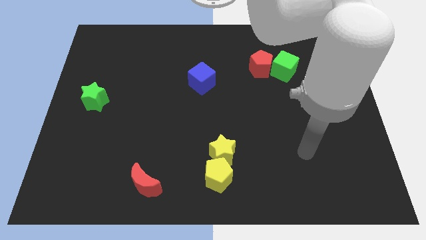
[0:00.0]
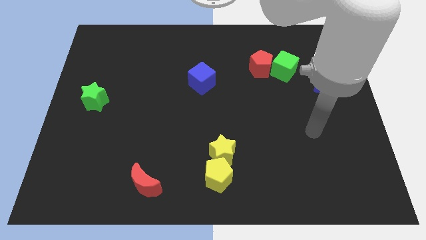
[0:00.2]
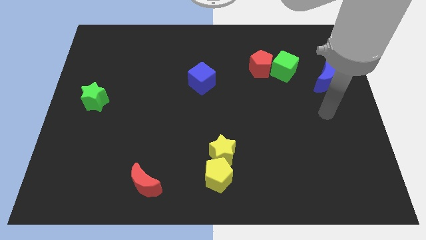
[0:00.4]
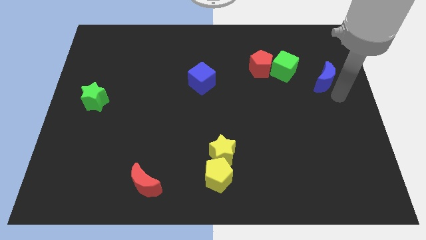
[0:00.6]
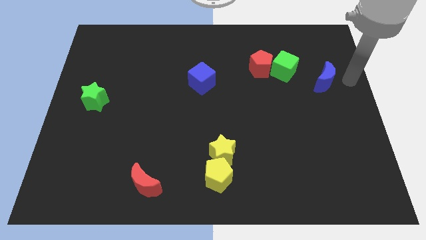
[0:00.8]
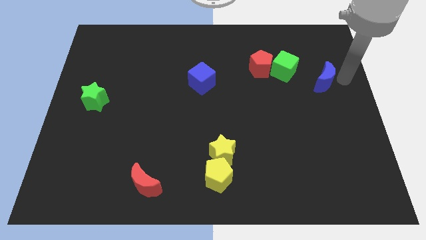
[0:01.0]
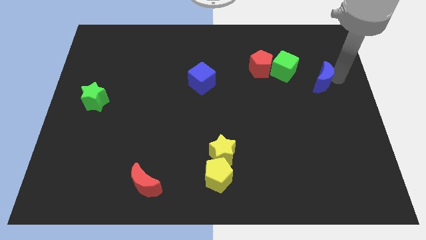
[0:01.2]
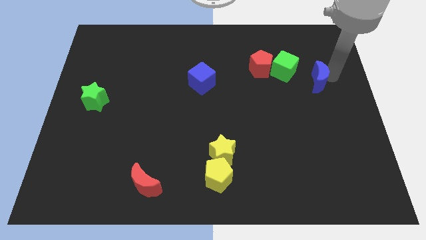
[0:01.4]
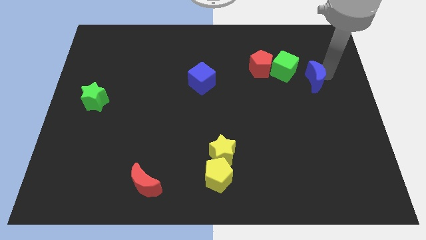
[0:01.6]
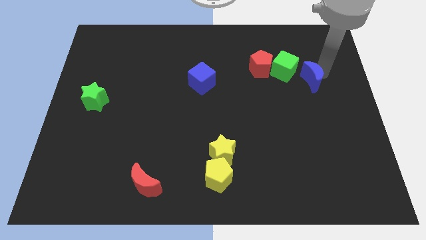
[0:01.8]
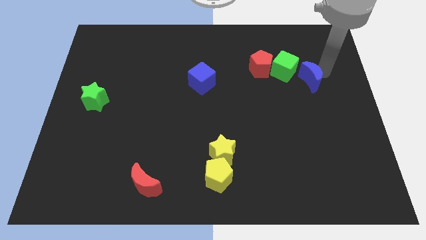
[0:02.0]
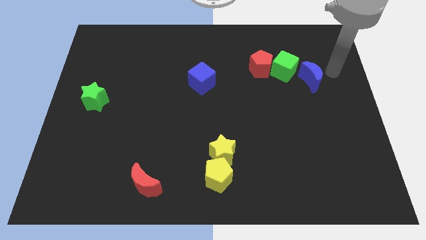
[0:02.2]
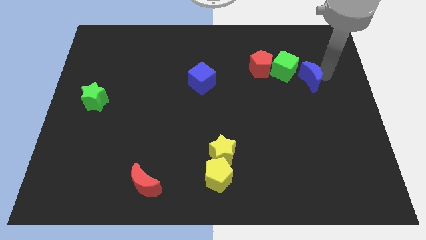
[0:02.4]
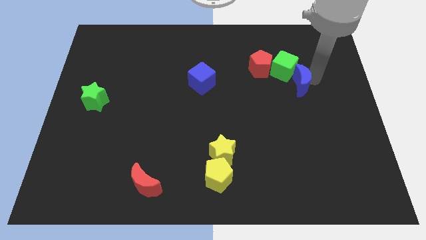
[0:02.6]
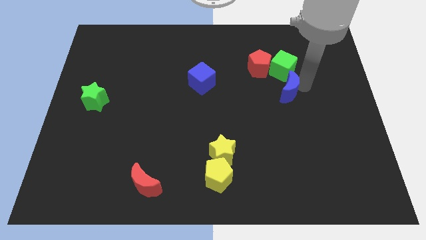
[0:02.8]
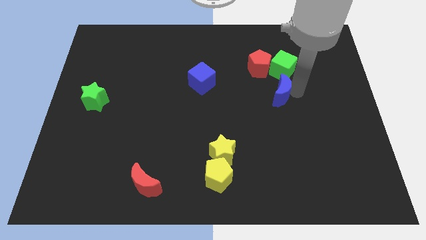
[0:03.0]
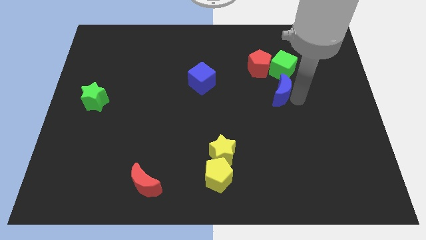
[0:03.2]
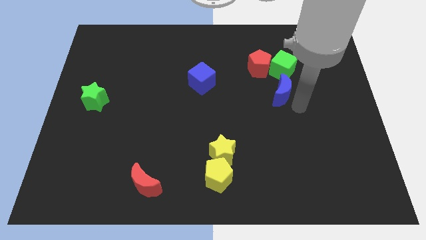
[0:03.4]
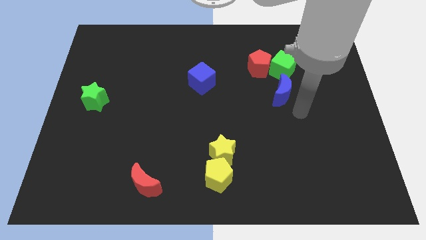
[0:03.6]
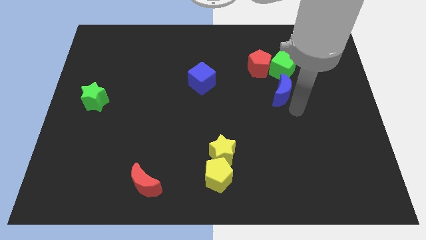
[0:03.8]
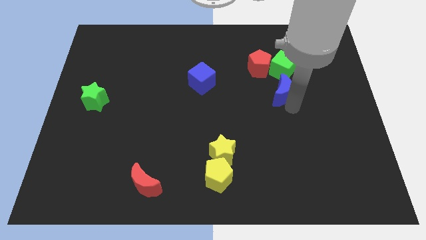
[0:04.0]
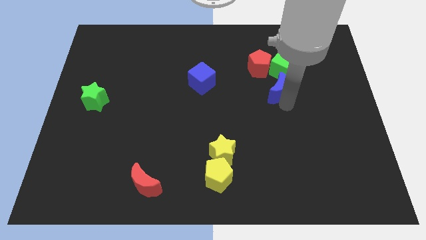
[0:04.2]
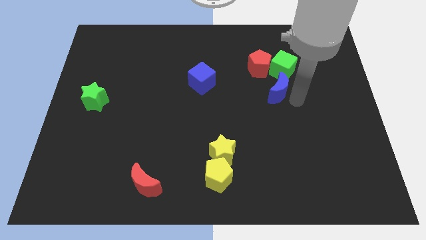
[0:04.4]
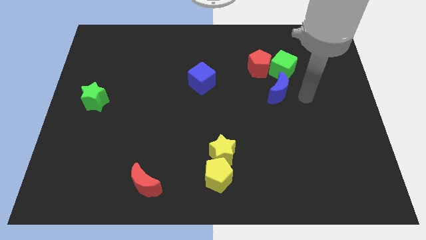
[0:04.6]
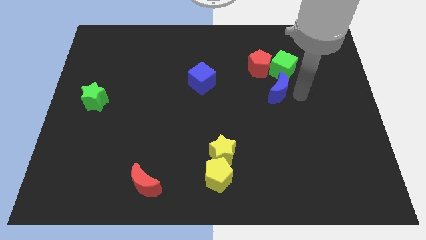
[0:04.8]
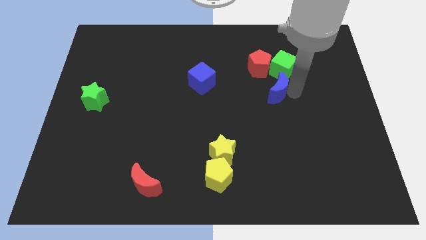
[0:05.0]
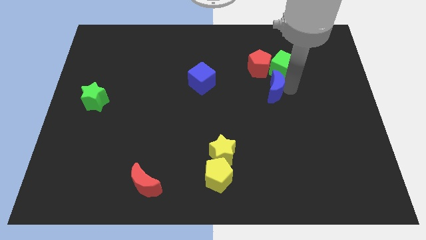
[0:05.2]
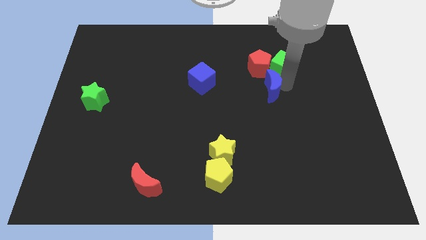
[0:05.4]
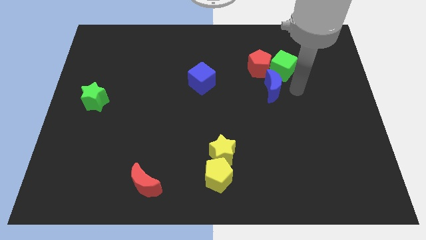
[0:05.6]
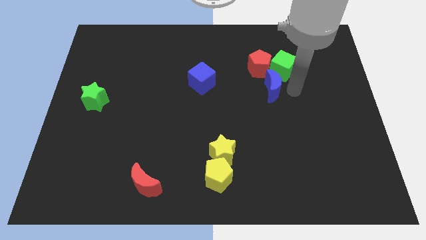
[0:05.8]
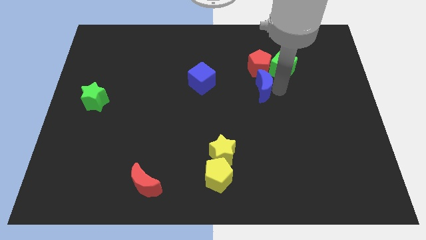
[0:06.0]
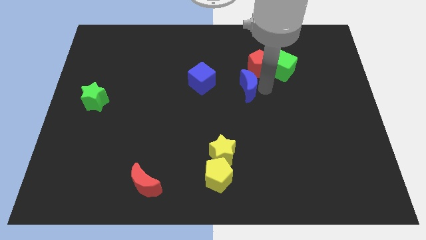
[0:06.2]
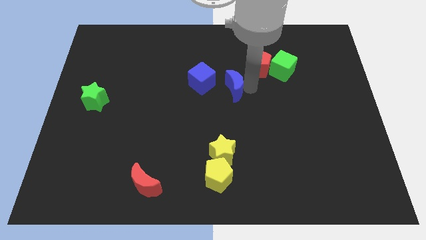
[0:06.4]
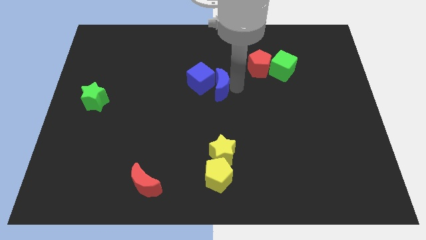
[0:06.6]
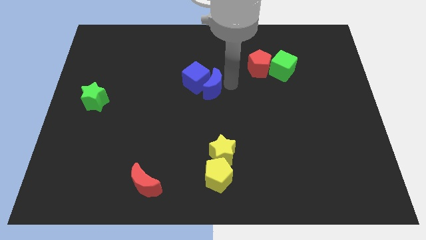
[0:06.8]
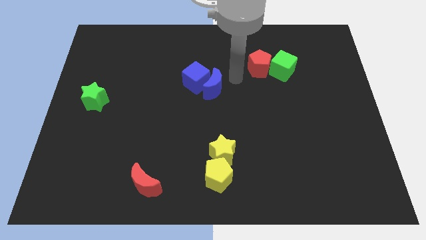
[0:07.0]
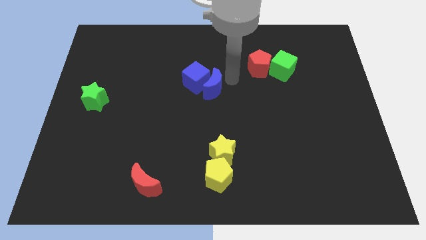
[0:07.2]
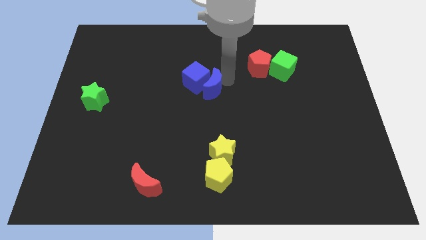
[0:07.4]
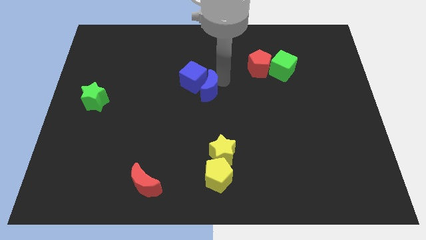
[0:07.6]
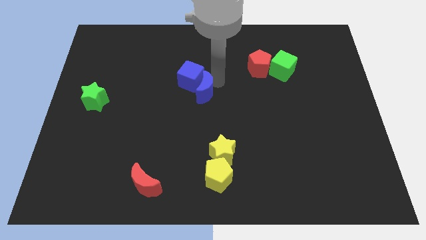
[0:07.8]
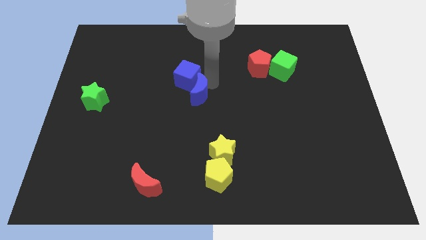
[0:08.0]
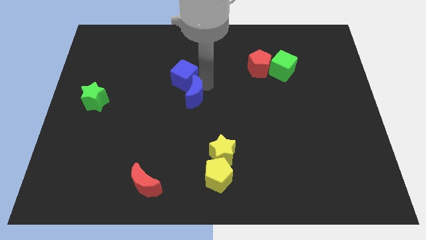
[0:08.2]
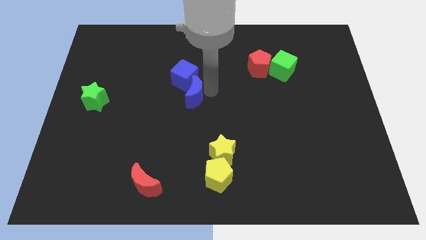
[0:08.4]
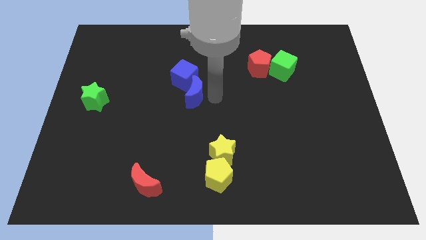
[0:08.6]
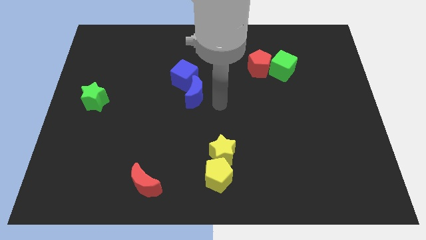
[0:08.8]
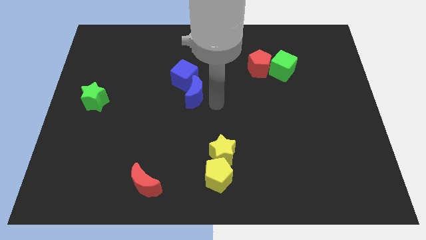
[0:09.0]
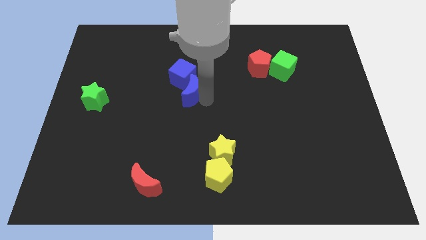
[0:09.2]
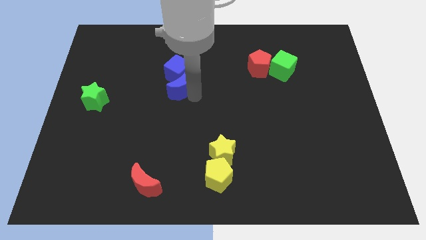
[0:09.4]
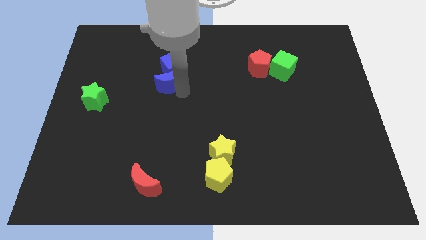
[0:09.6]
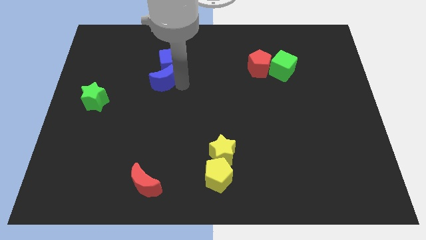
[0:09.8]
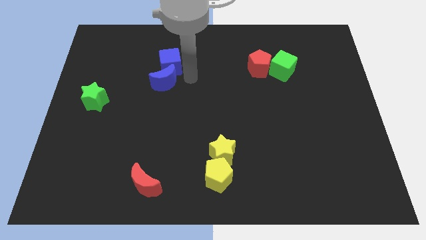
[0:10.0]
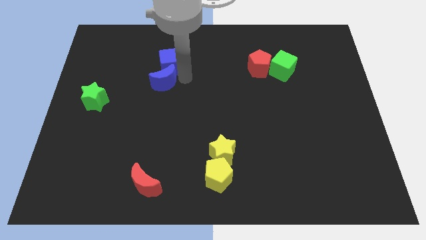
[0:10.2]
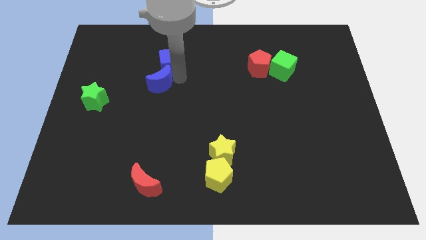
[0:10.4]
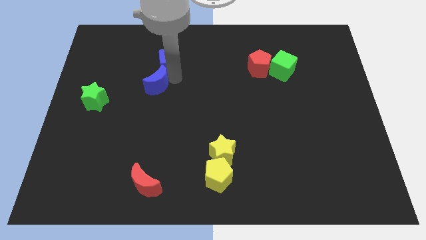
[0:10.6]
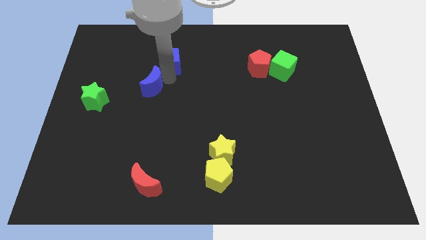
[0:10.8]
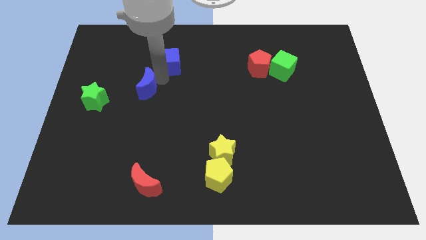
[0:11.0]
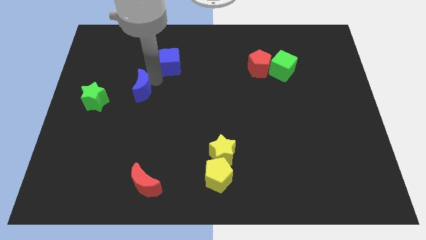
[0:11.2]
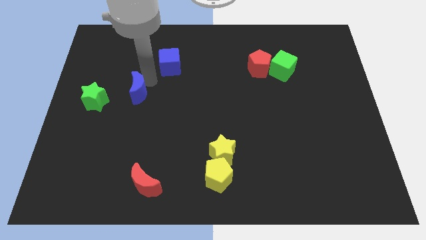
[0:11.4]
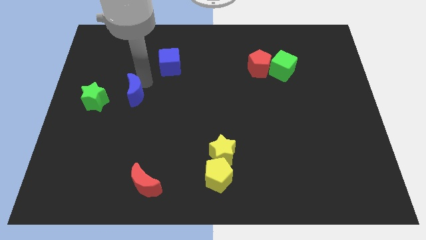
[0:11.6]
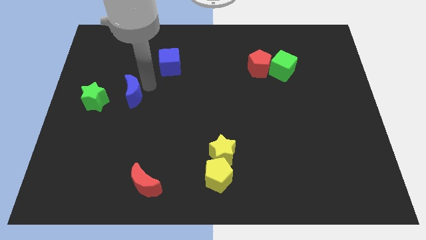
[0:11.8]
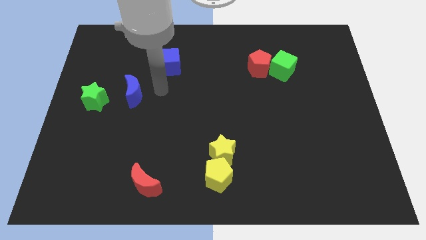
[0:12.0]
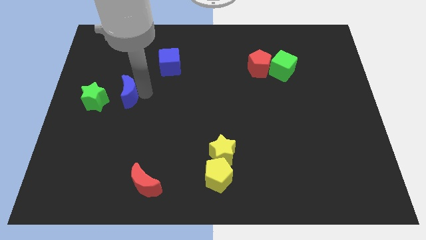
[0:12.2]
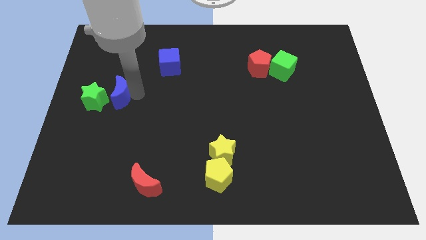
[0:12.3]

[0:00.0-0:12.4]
move the blue moon towards the green star

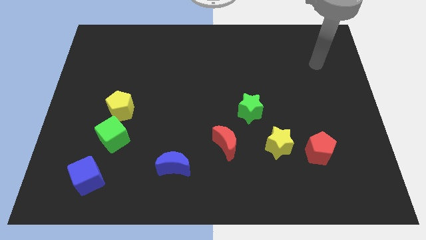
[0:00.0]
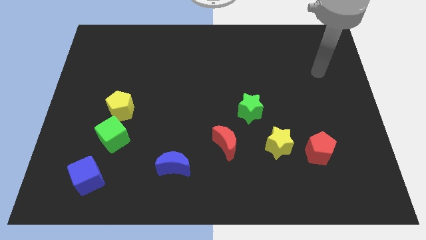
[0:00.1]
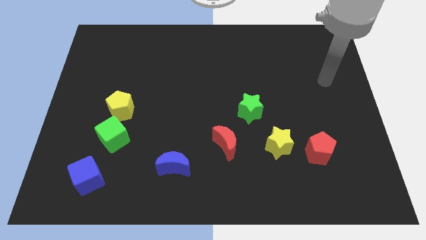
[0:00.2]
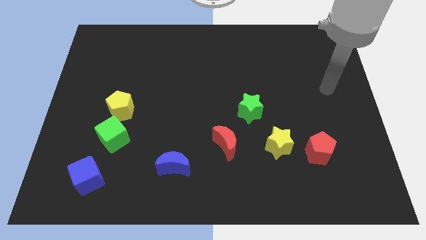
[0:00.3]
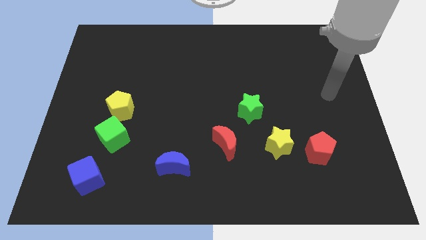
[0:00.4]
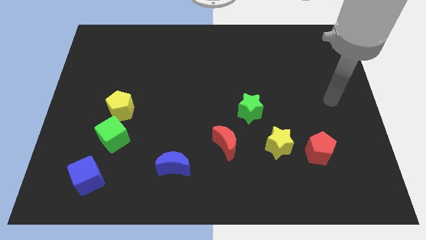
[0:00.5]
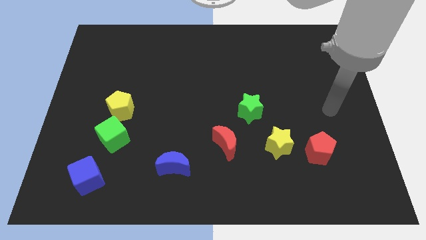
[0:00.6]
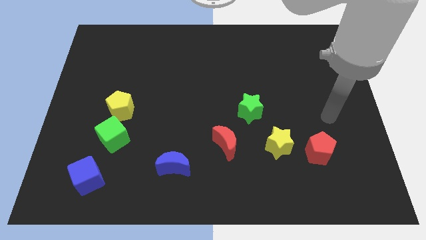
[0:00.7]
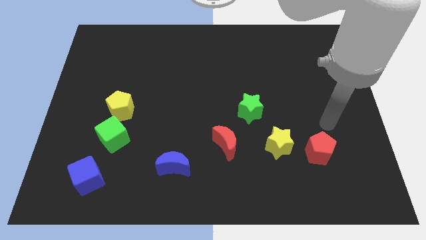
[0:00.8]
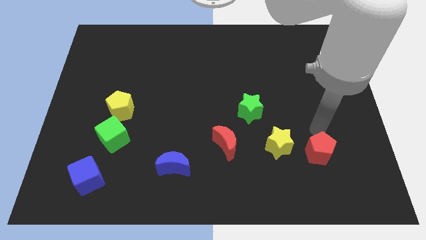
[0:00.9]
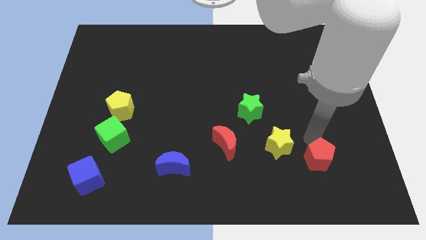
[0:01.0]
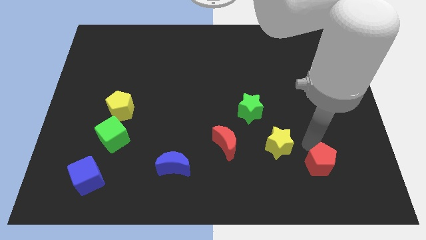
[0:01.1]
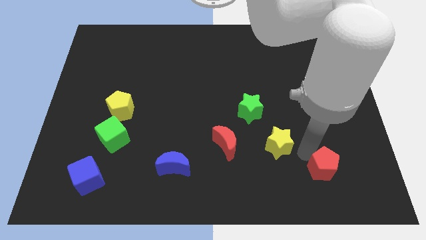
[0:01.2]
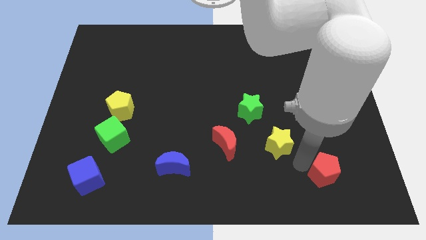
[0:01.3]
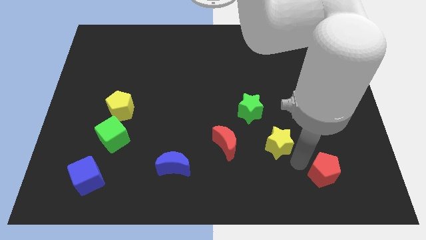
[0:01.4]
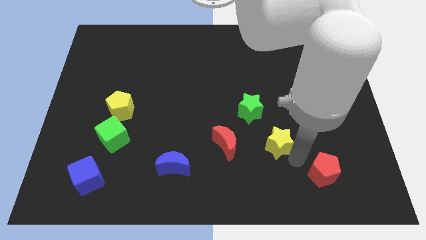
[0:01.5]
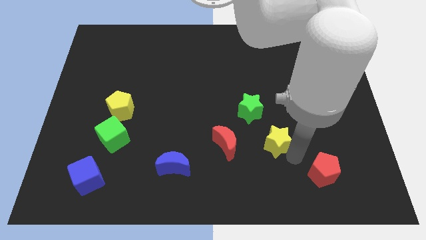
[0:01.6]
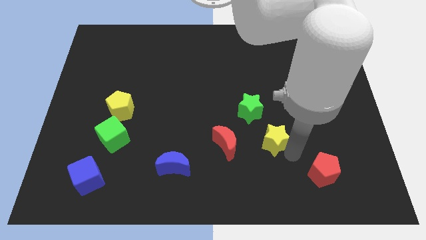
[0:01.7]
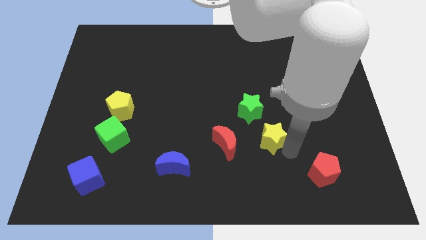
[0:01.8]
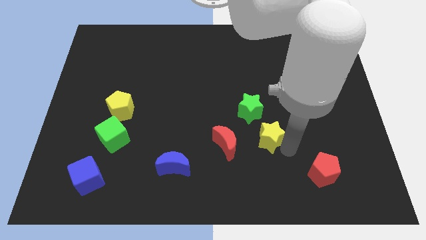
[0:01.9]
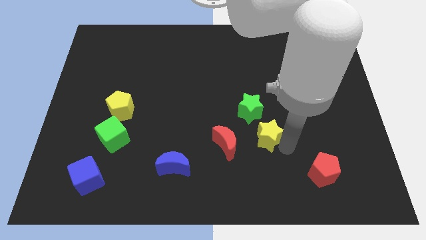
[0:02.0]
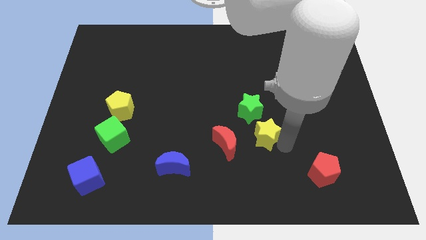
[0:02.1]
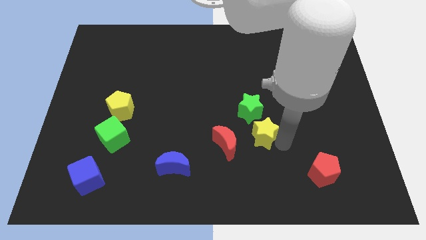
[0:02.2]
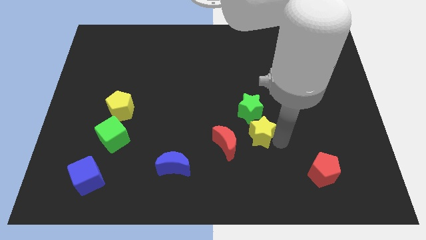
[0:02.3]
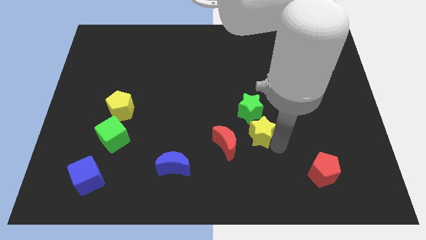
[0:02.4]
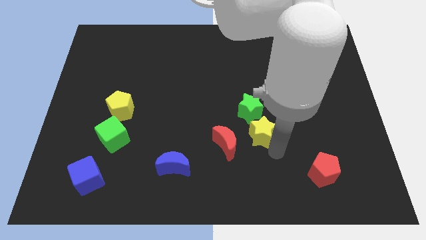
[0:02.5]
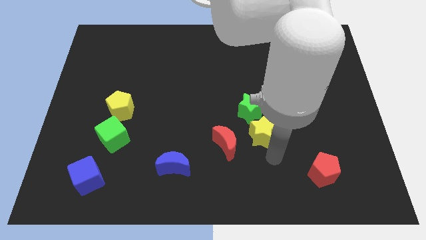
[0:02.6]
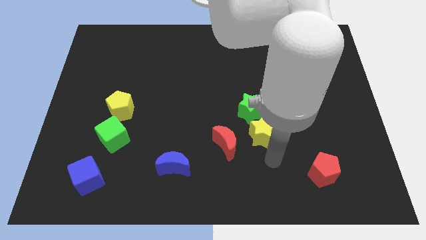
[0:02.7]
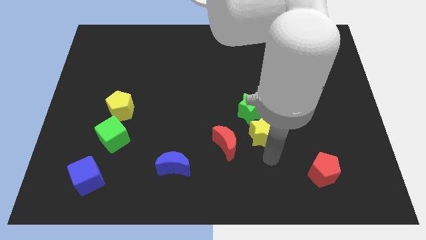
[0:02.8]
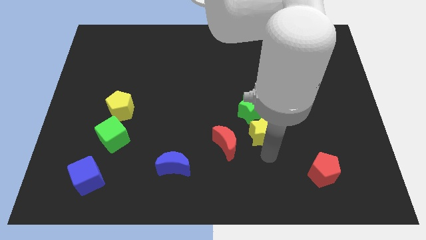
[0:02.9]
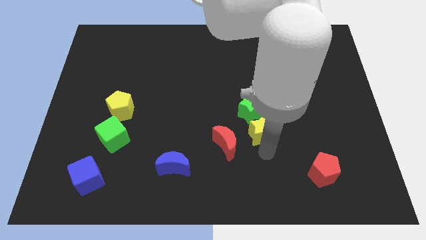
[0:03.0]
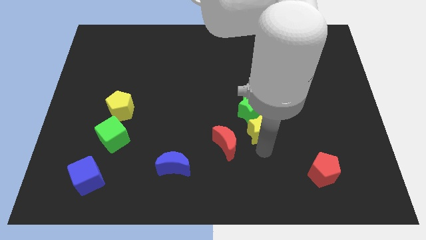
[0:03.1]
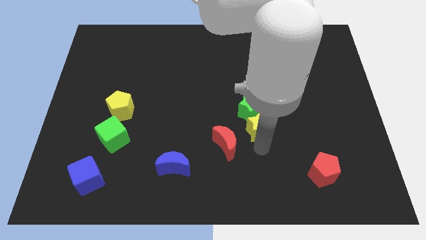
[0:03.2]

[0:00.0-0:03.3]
push the yellow star next to the green star
